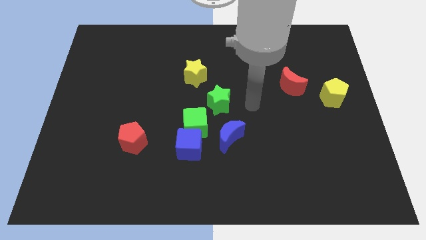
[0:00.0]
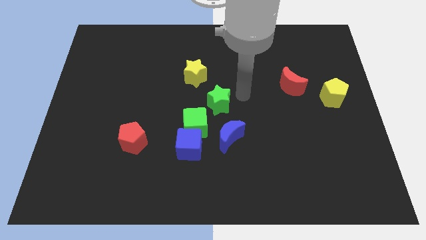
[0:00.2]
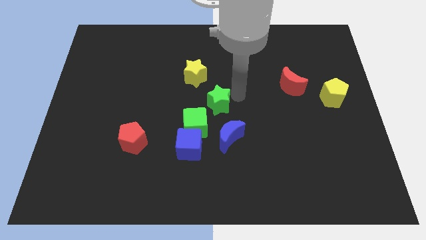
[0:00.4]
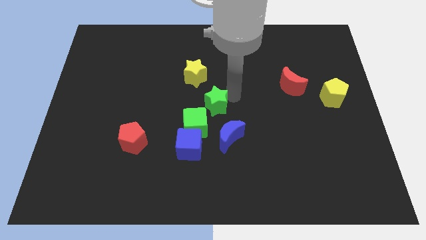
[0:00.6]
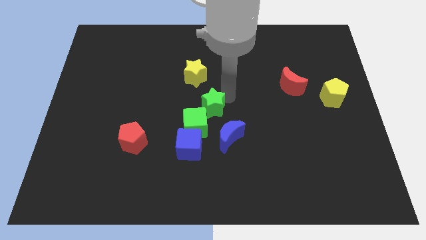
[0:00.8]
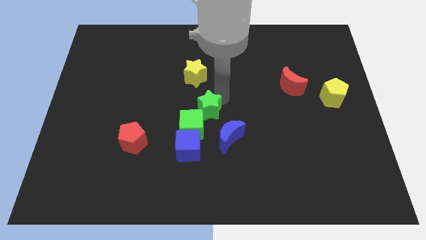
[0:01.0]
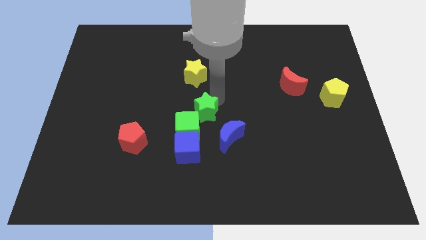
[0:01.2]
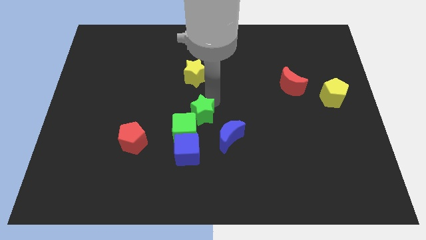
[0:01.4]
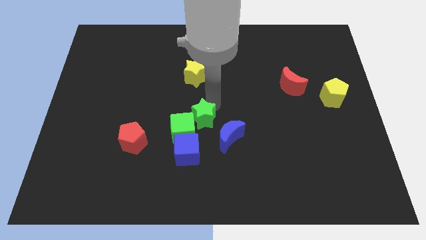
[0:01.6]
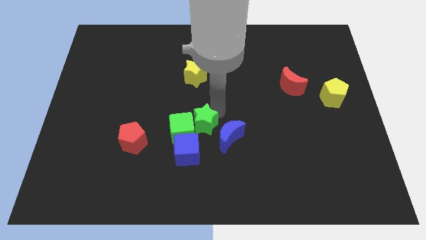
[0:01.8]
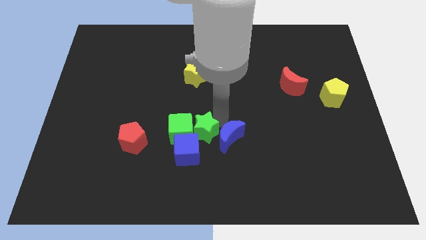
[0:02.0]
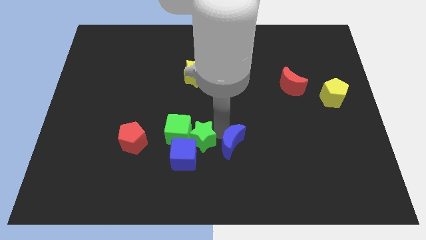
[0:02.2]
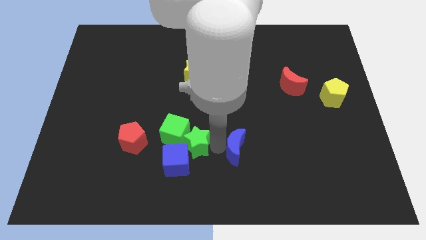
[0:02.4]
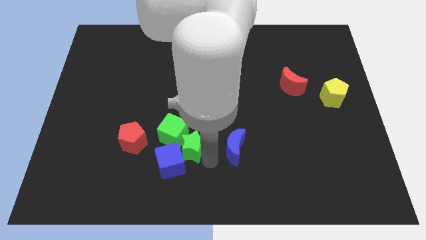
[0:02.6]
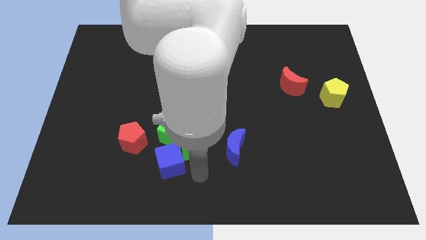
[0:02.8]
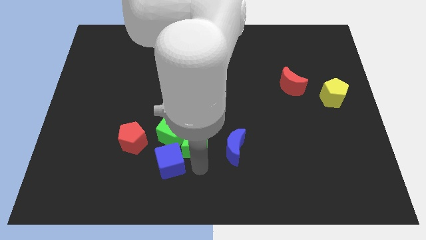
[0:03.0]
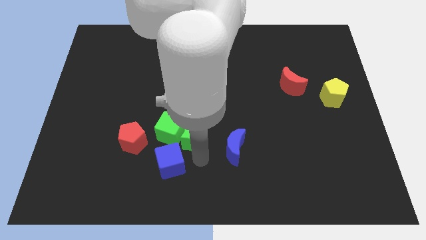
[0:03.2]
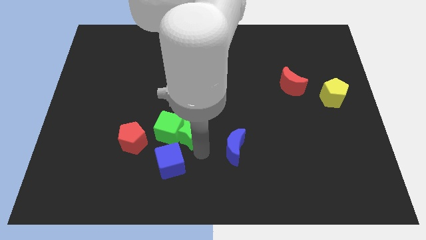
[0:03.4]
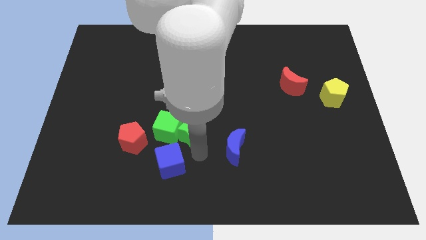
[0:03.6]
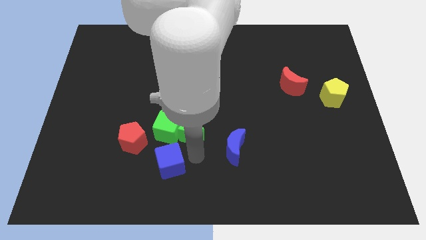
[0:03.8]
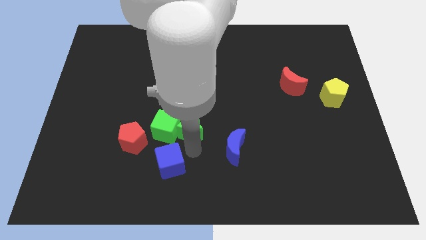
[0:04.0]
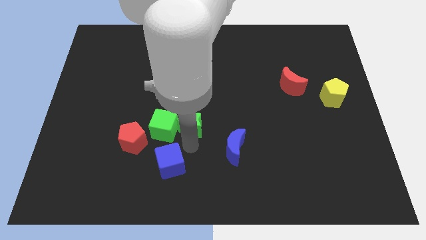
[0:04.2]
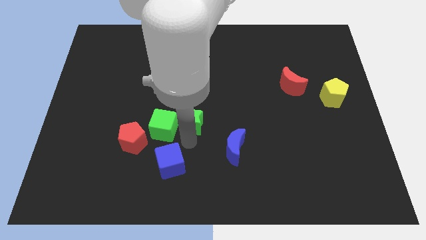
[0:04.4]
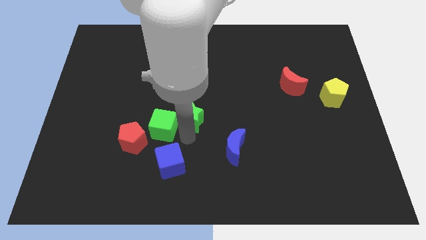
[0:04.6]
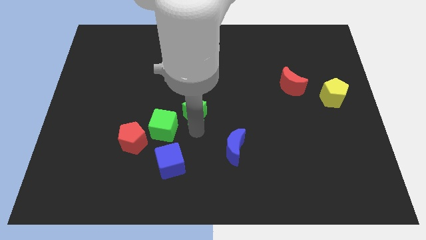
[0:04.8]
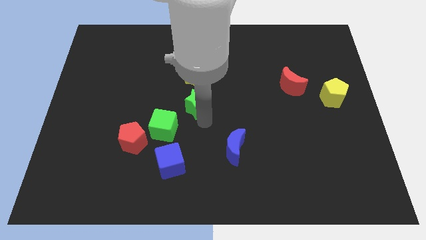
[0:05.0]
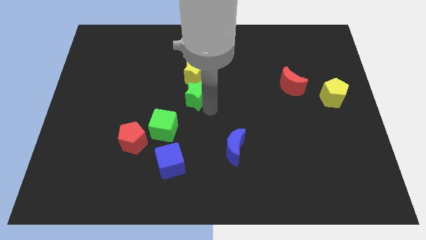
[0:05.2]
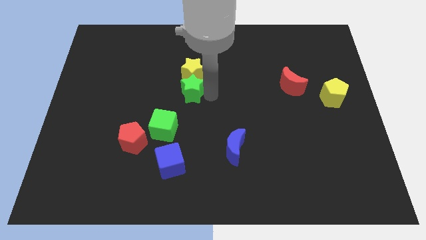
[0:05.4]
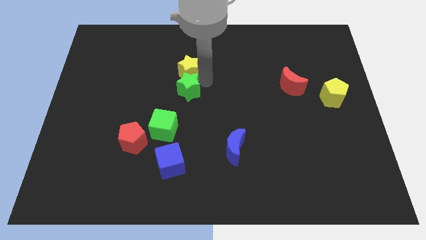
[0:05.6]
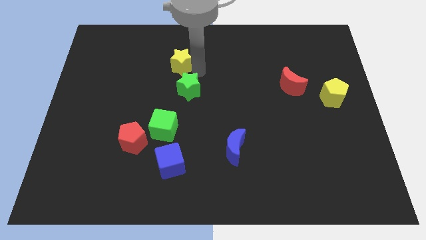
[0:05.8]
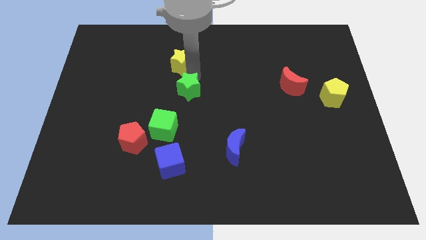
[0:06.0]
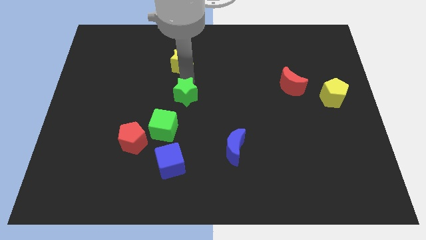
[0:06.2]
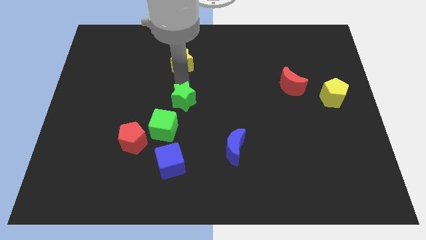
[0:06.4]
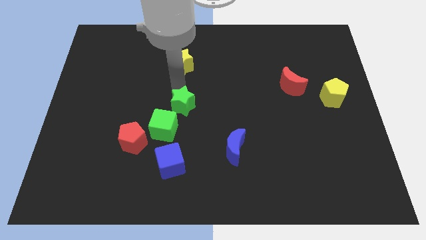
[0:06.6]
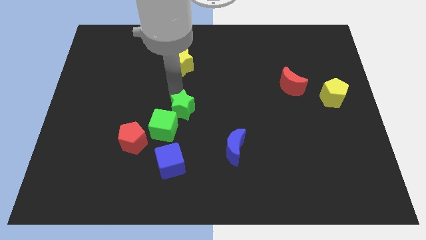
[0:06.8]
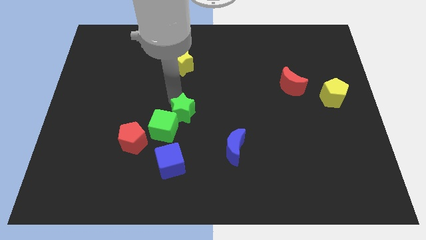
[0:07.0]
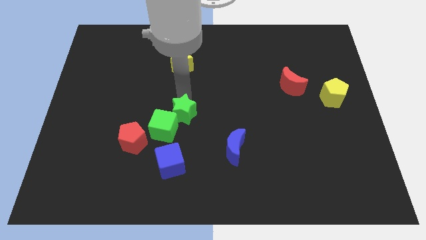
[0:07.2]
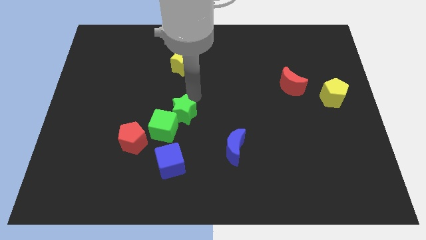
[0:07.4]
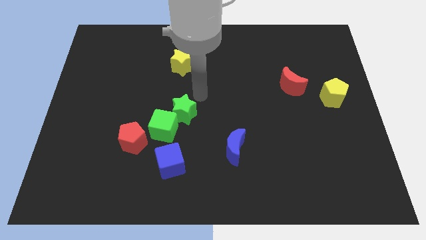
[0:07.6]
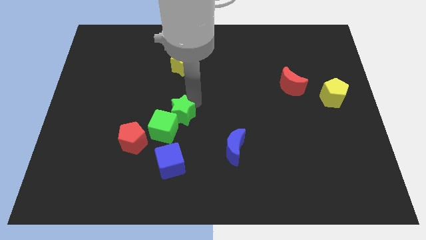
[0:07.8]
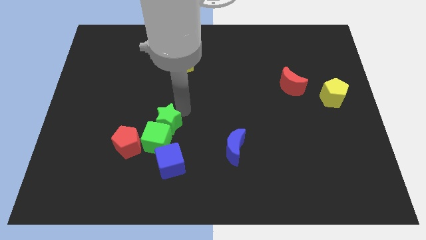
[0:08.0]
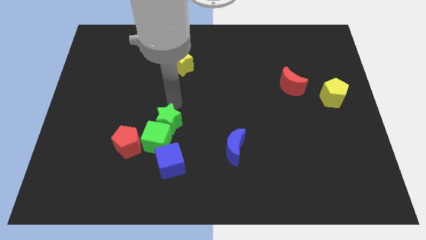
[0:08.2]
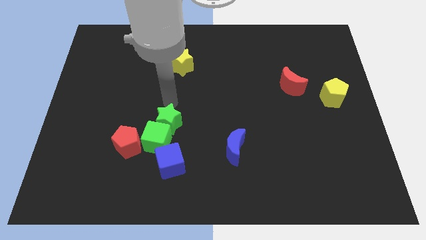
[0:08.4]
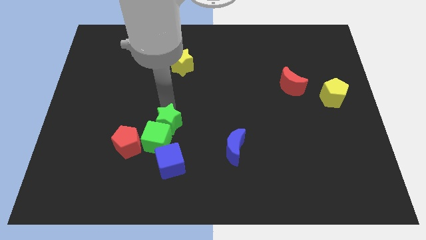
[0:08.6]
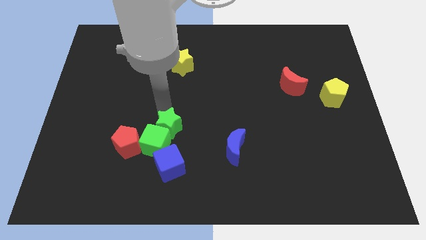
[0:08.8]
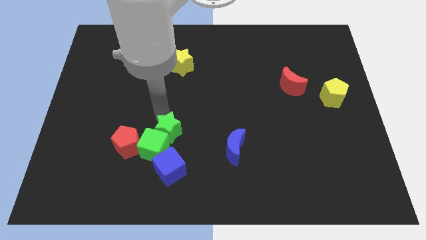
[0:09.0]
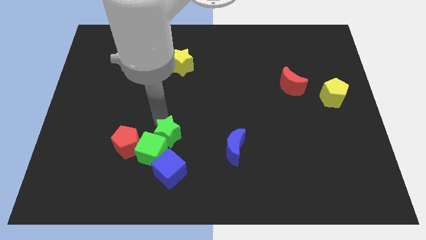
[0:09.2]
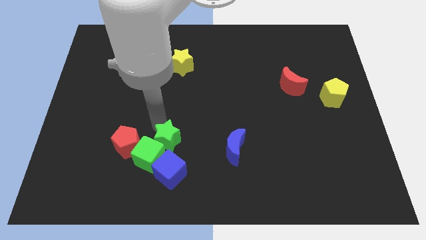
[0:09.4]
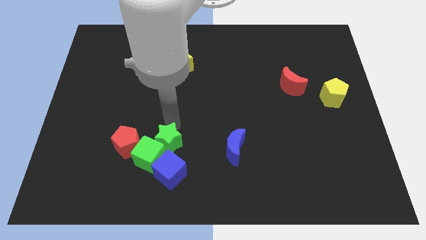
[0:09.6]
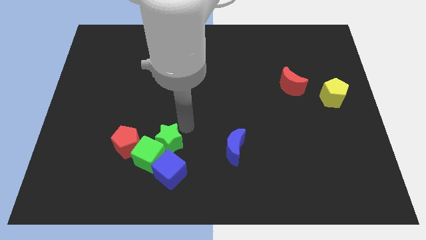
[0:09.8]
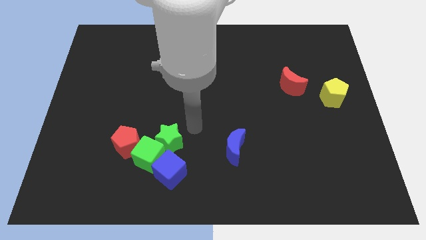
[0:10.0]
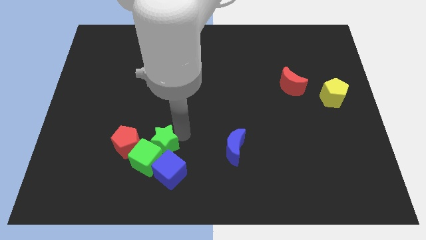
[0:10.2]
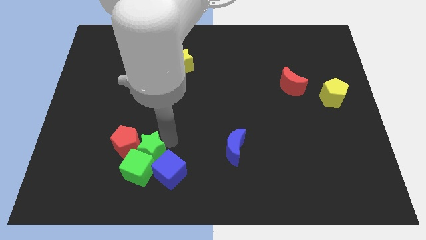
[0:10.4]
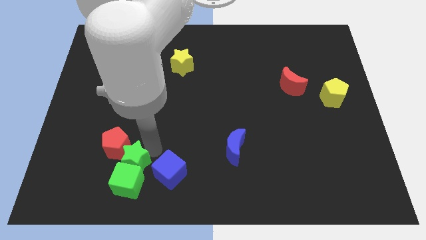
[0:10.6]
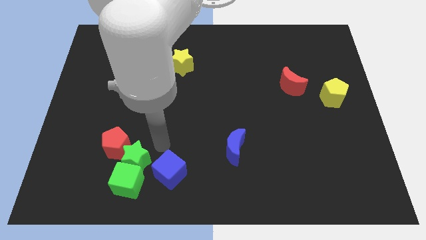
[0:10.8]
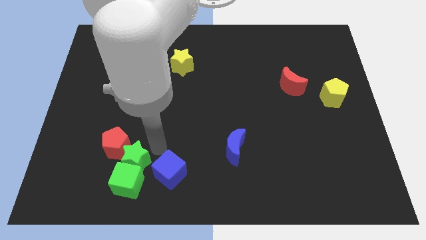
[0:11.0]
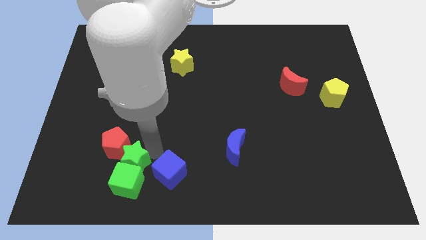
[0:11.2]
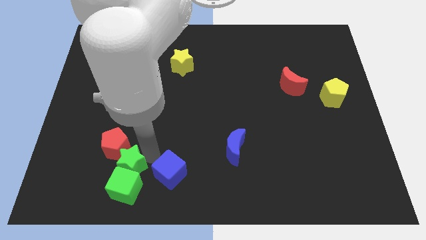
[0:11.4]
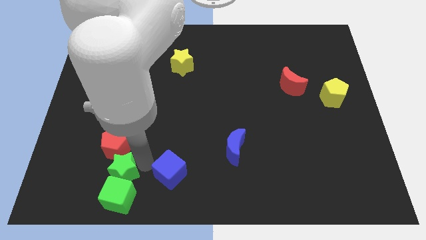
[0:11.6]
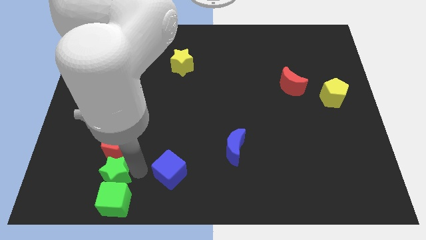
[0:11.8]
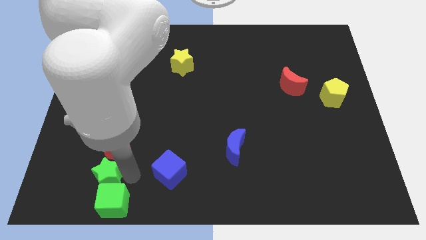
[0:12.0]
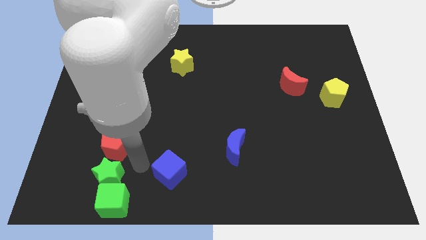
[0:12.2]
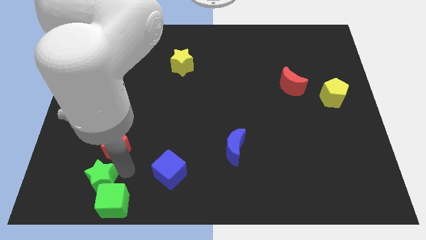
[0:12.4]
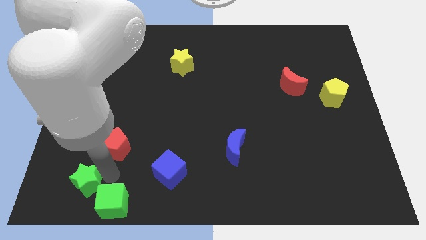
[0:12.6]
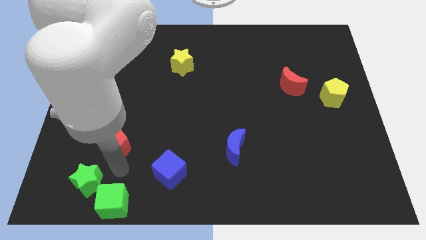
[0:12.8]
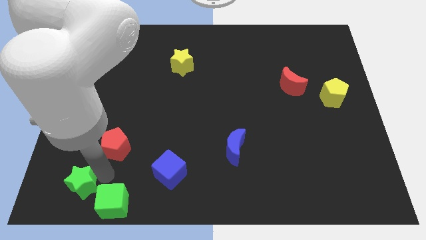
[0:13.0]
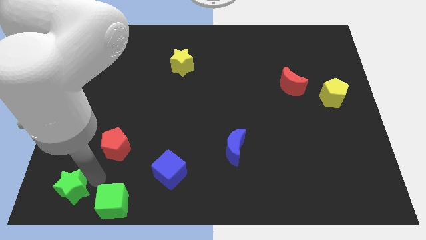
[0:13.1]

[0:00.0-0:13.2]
move the green star to the bottom left of the board

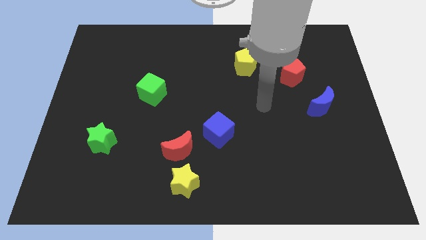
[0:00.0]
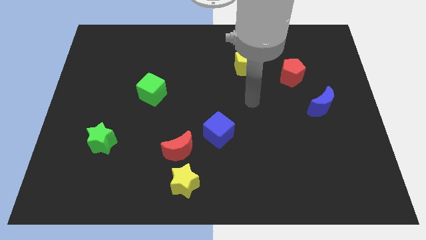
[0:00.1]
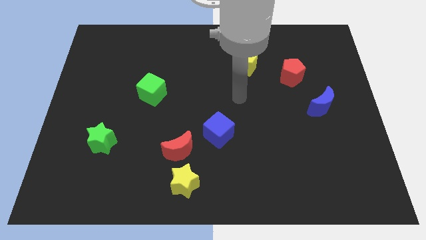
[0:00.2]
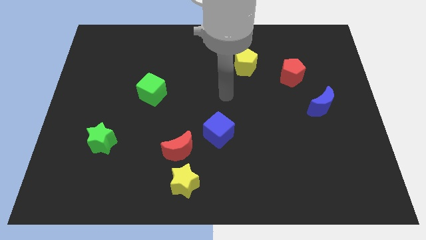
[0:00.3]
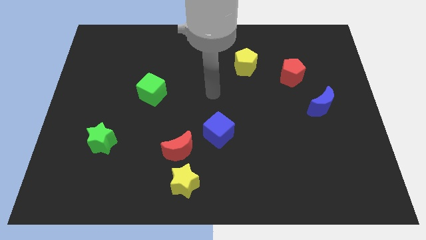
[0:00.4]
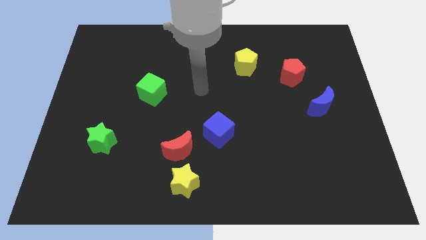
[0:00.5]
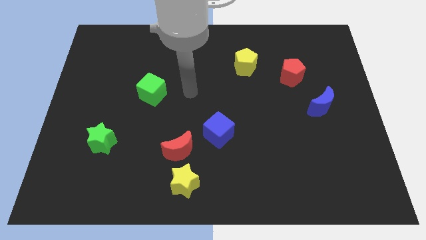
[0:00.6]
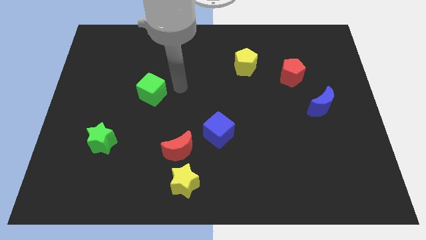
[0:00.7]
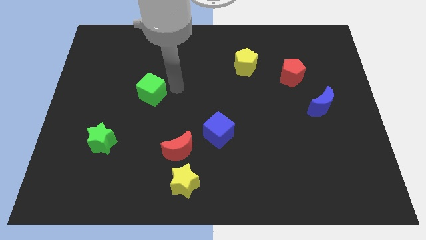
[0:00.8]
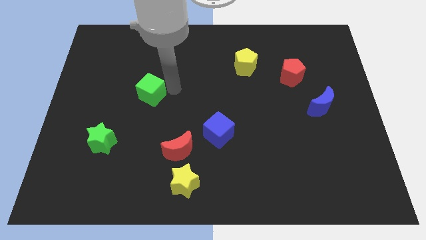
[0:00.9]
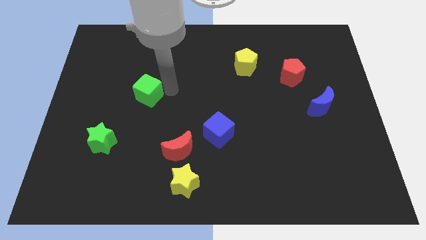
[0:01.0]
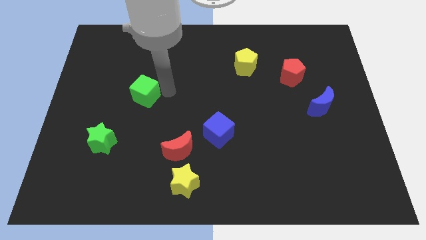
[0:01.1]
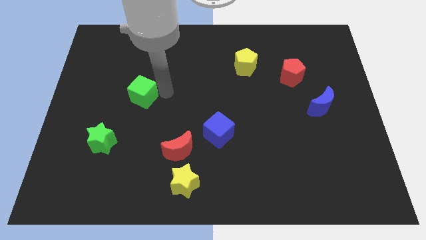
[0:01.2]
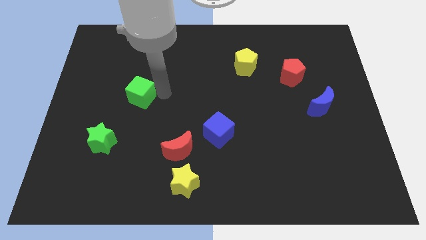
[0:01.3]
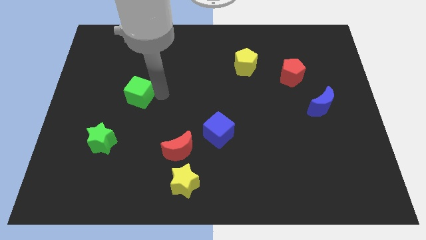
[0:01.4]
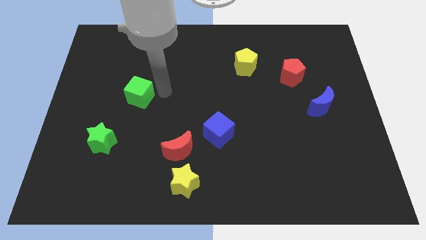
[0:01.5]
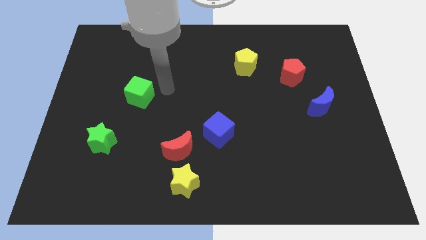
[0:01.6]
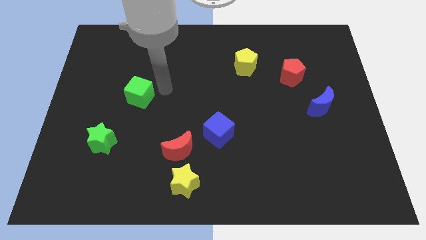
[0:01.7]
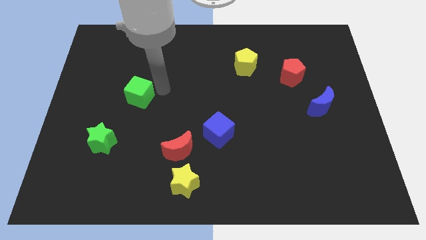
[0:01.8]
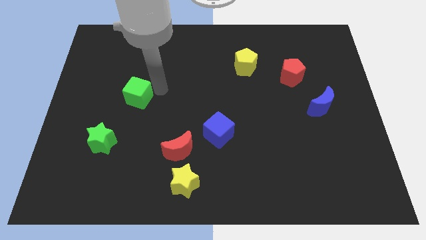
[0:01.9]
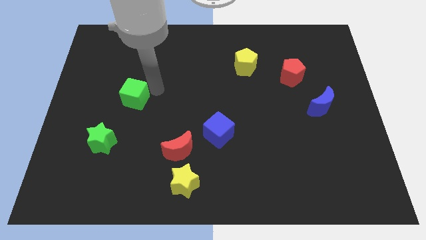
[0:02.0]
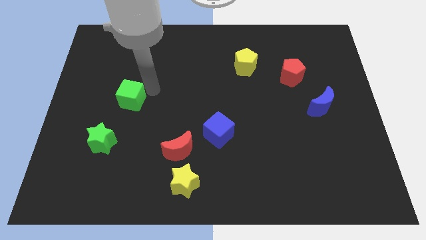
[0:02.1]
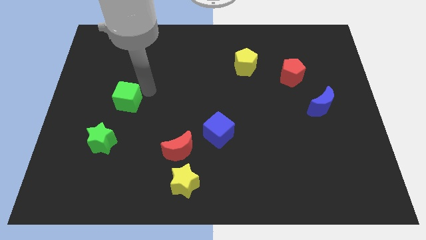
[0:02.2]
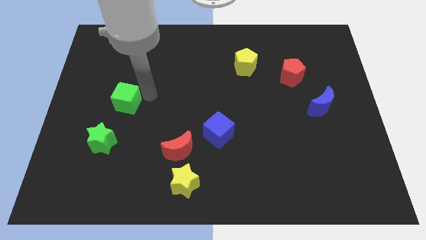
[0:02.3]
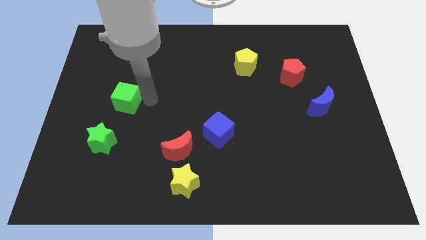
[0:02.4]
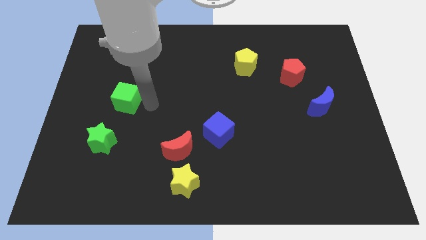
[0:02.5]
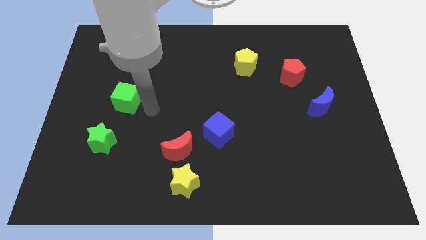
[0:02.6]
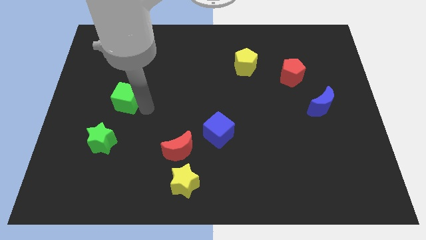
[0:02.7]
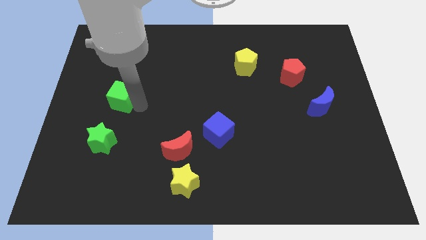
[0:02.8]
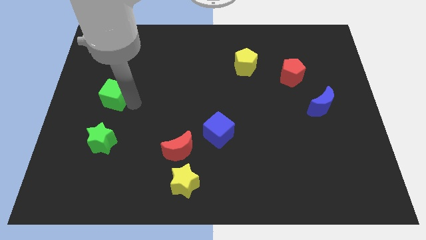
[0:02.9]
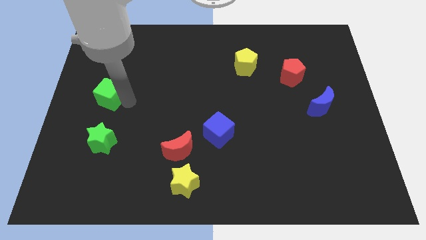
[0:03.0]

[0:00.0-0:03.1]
put the green cube to the left side
